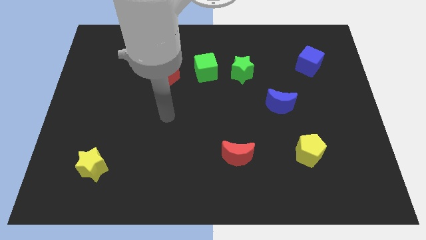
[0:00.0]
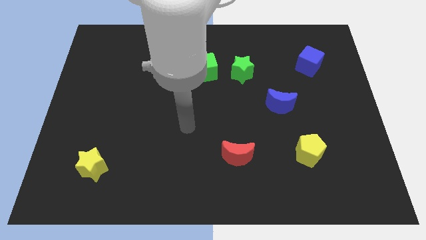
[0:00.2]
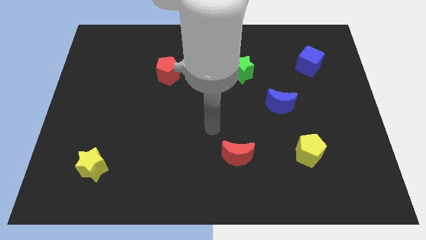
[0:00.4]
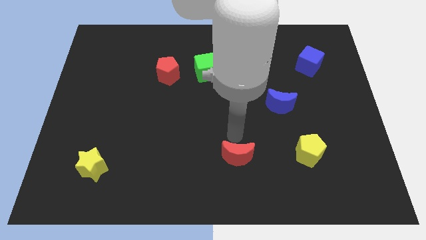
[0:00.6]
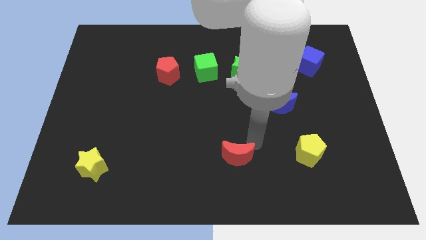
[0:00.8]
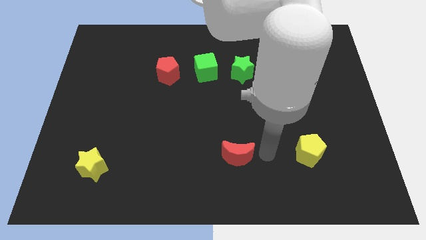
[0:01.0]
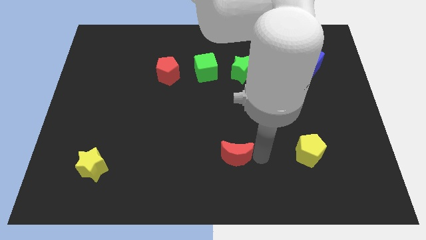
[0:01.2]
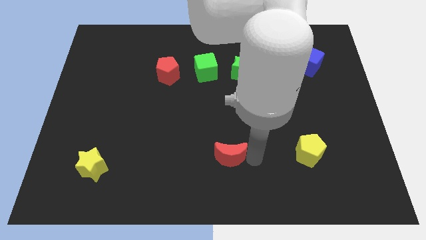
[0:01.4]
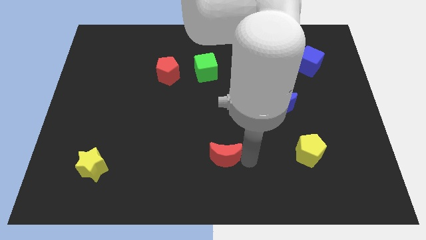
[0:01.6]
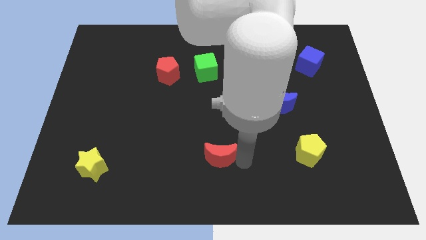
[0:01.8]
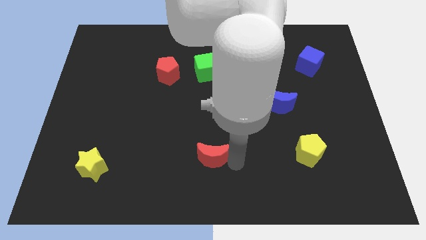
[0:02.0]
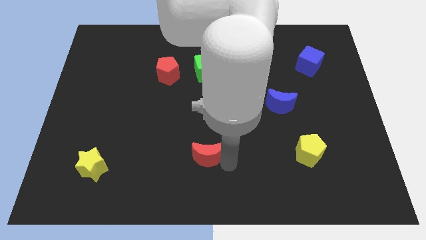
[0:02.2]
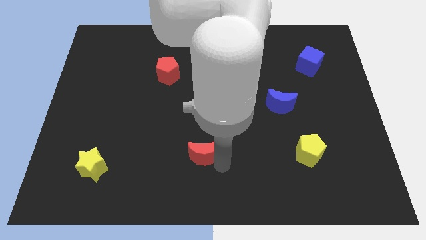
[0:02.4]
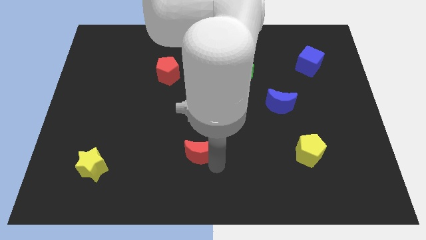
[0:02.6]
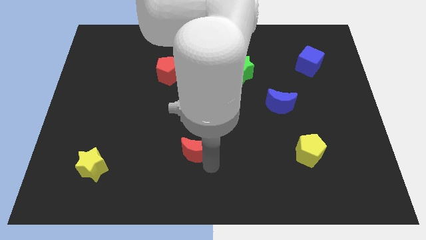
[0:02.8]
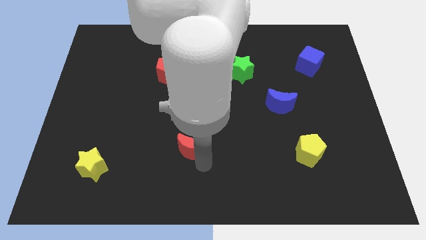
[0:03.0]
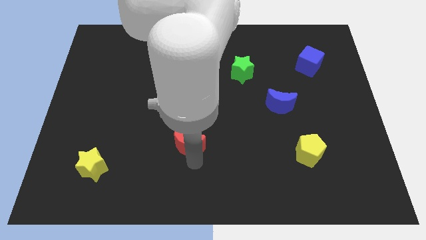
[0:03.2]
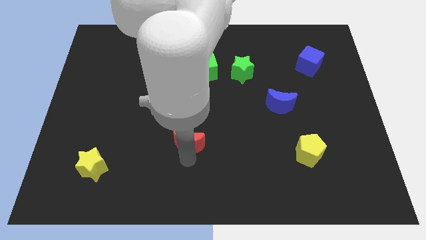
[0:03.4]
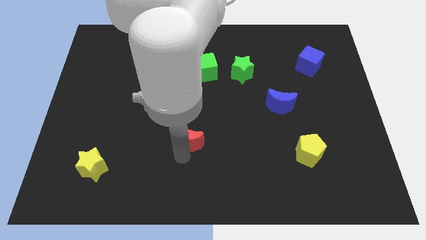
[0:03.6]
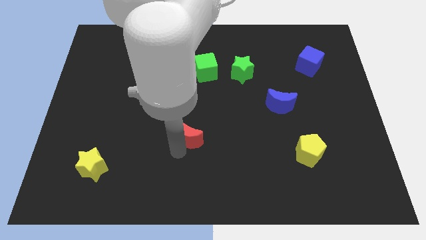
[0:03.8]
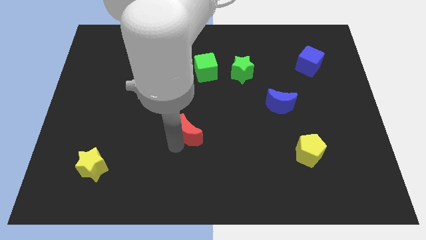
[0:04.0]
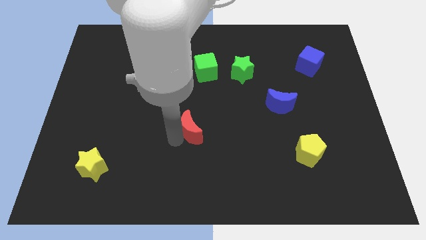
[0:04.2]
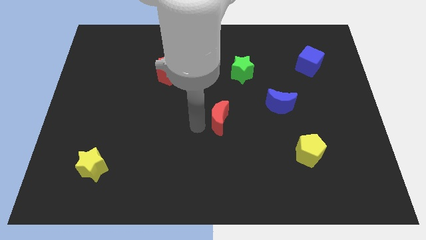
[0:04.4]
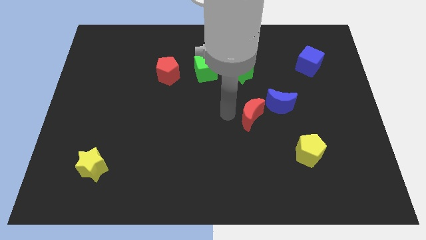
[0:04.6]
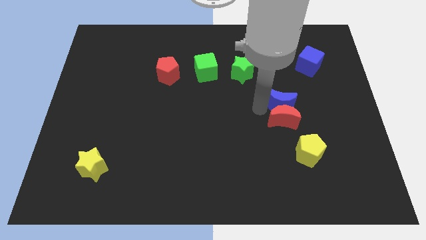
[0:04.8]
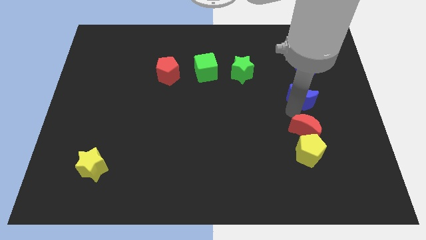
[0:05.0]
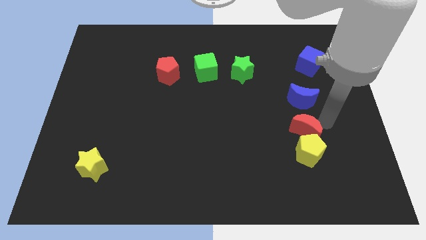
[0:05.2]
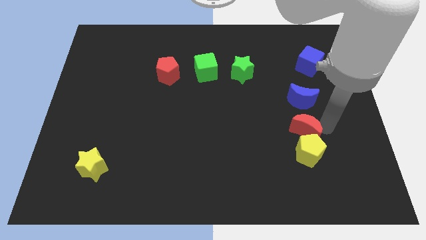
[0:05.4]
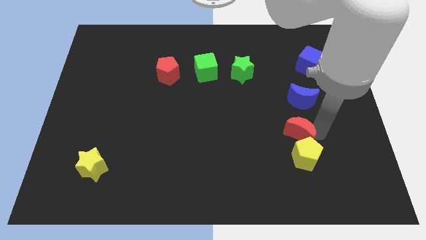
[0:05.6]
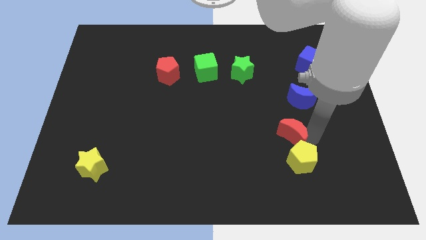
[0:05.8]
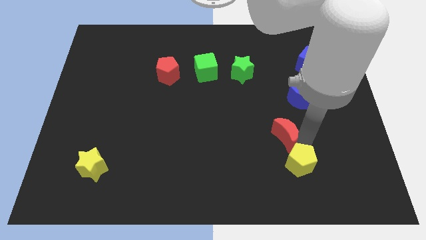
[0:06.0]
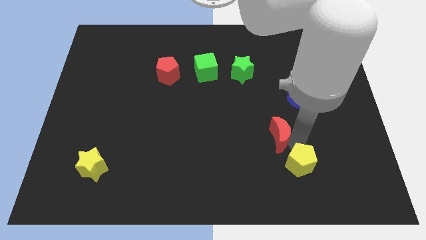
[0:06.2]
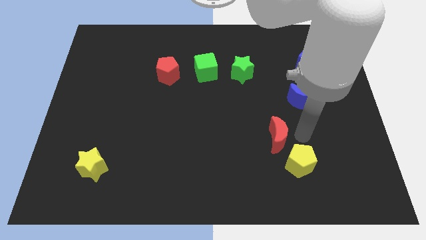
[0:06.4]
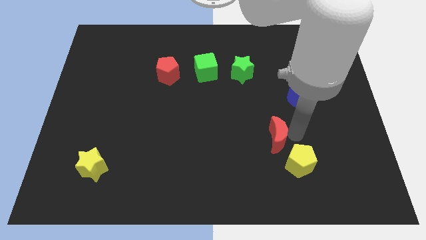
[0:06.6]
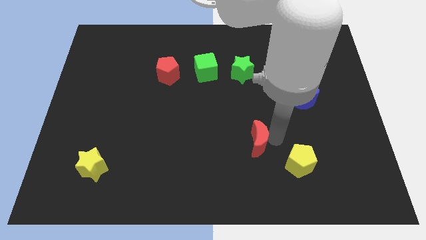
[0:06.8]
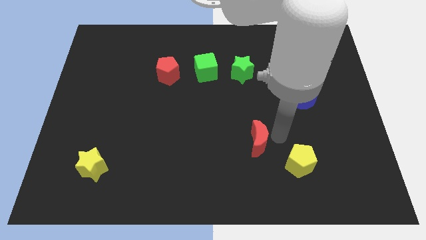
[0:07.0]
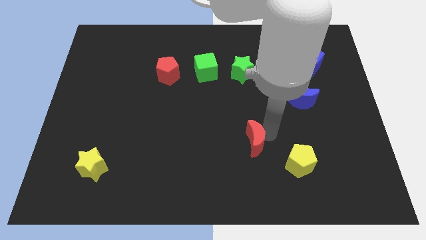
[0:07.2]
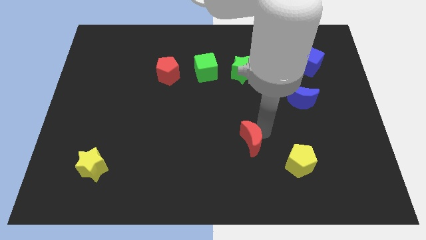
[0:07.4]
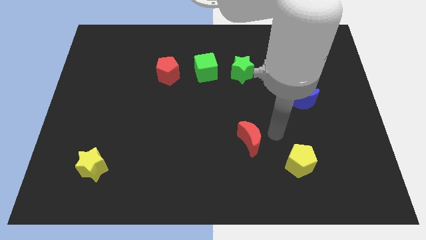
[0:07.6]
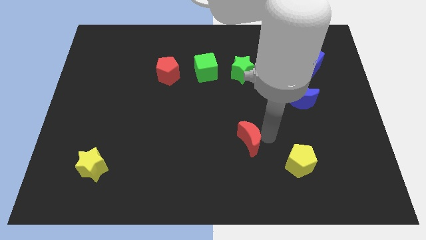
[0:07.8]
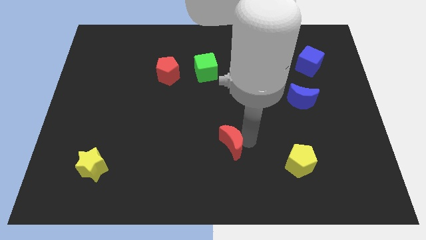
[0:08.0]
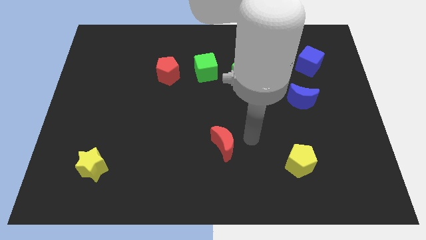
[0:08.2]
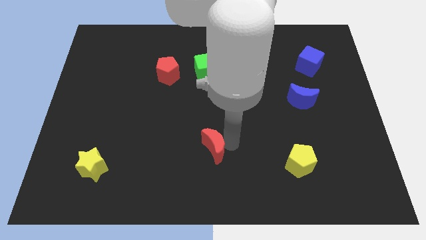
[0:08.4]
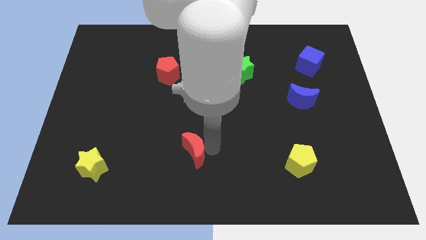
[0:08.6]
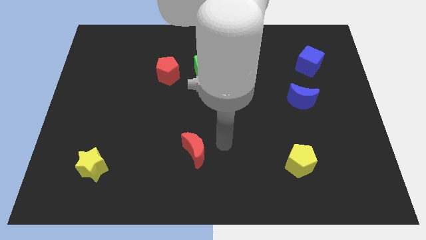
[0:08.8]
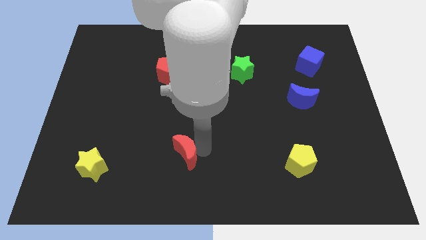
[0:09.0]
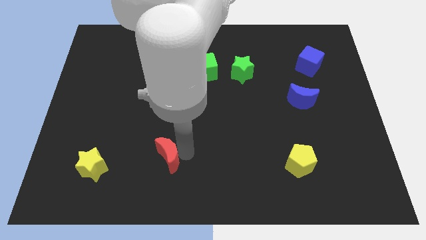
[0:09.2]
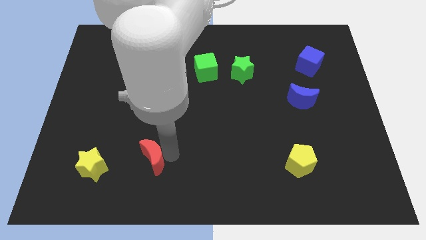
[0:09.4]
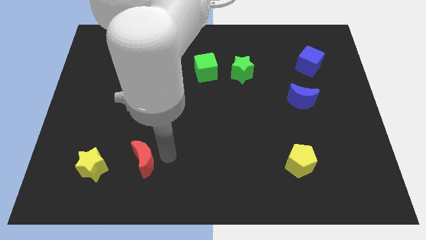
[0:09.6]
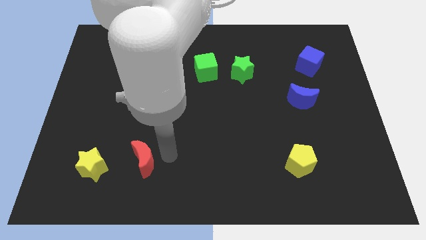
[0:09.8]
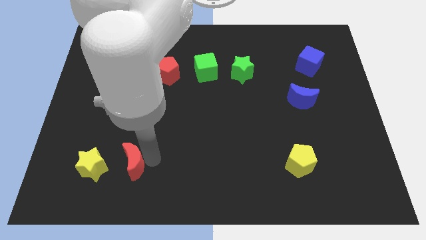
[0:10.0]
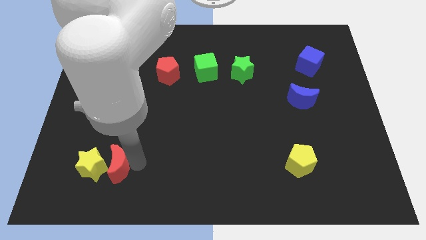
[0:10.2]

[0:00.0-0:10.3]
put the red moon close to the yellow star

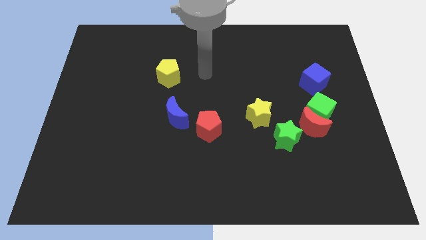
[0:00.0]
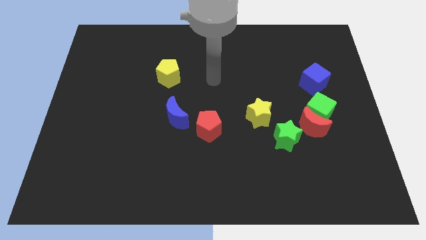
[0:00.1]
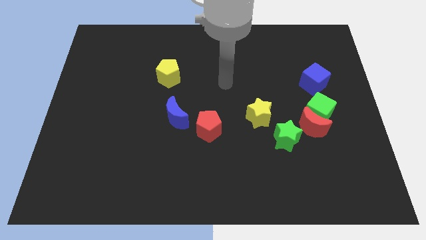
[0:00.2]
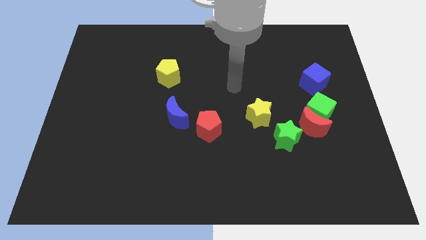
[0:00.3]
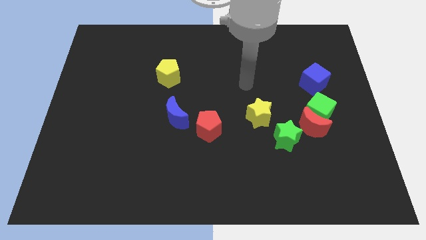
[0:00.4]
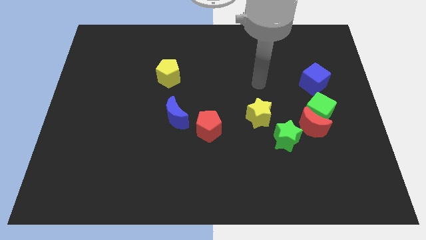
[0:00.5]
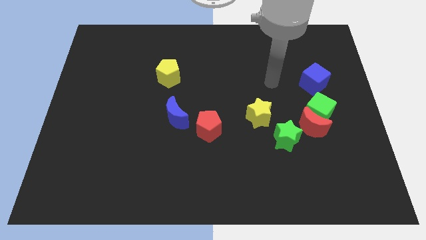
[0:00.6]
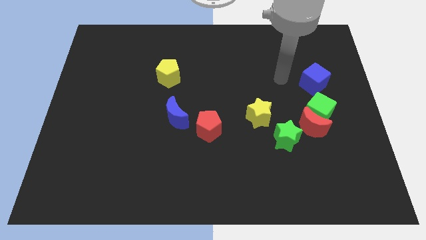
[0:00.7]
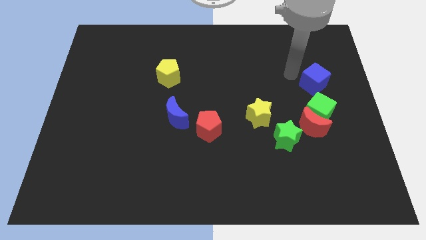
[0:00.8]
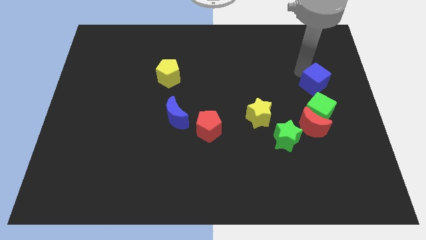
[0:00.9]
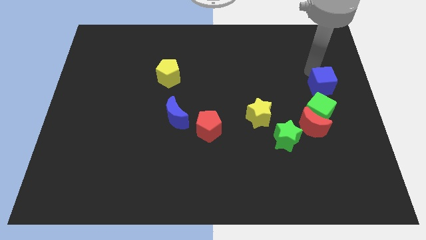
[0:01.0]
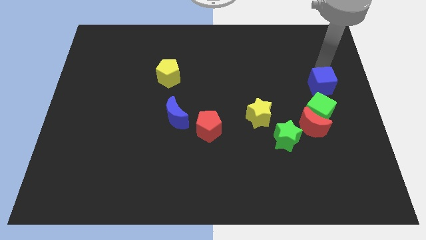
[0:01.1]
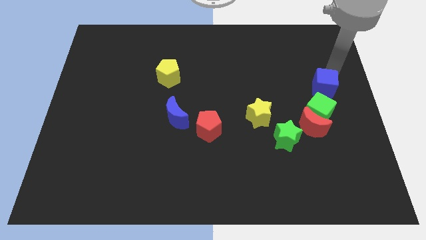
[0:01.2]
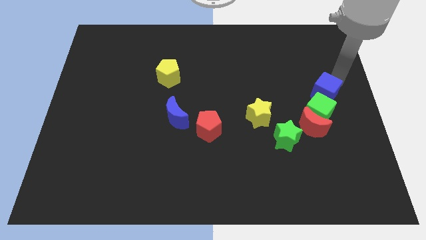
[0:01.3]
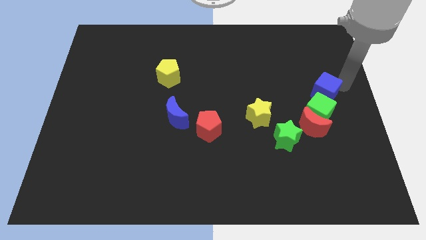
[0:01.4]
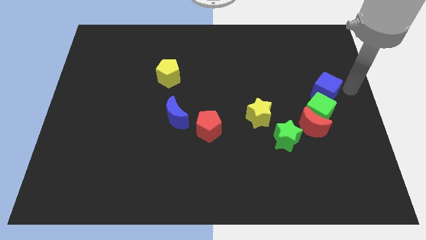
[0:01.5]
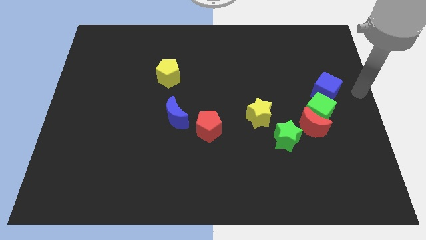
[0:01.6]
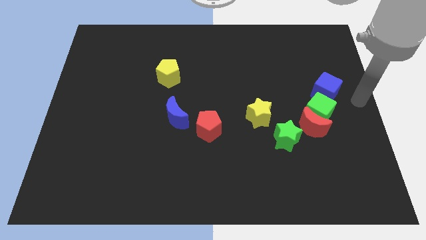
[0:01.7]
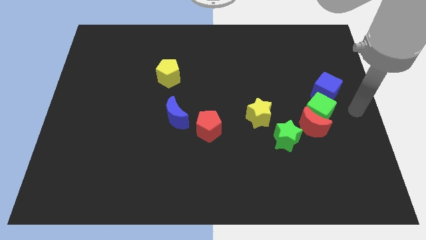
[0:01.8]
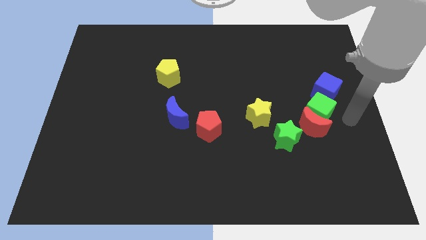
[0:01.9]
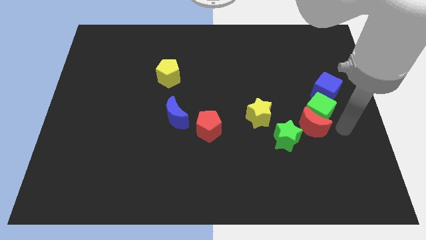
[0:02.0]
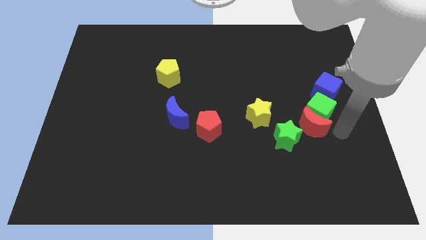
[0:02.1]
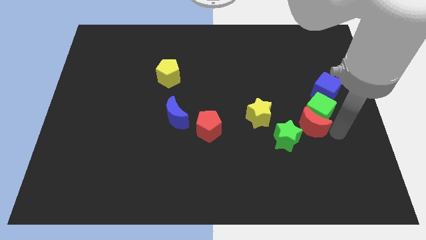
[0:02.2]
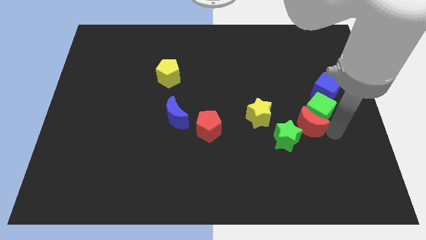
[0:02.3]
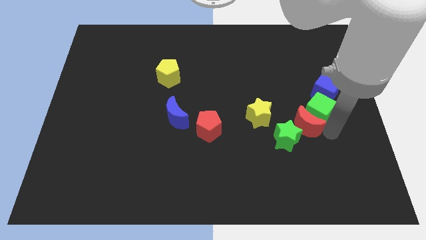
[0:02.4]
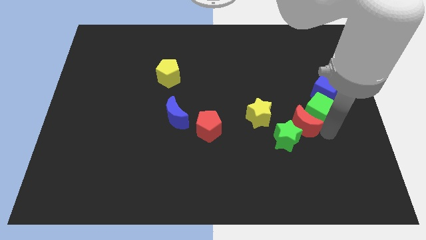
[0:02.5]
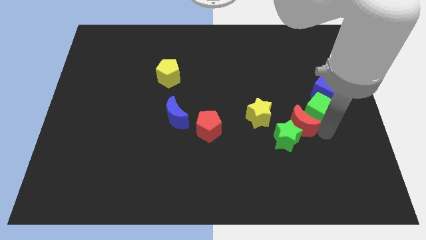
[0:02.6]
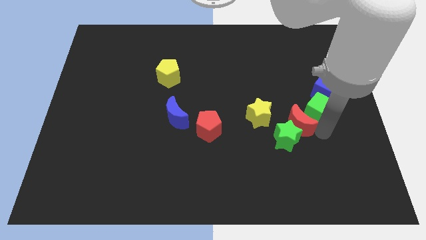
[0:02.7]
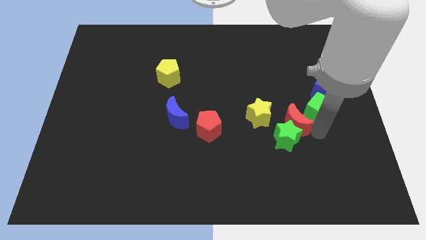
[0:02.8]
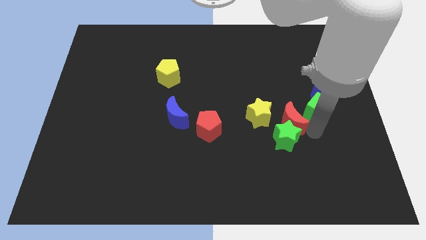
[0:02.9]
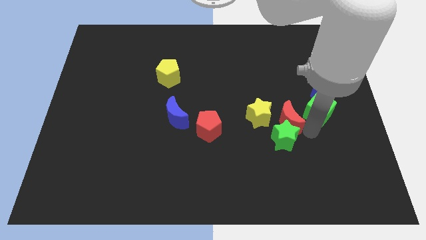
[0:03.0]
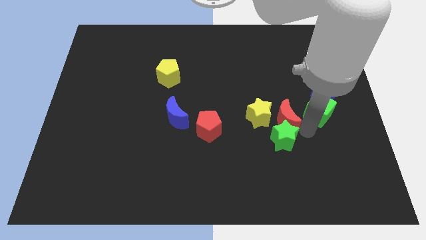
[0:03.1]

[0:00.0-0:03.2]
put the red moon towards the yellow star
